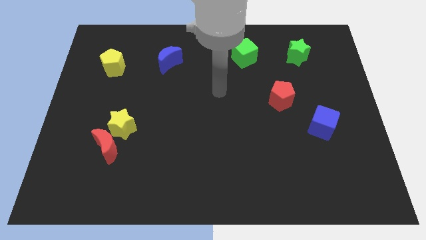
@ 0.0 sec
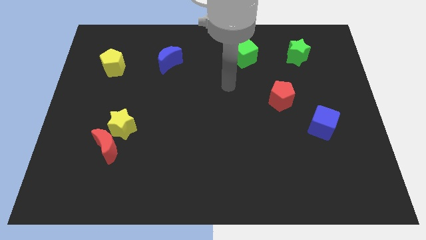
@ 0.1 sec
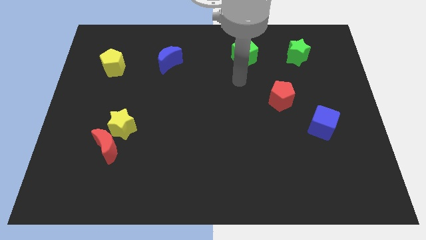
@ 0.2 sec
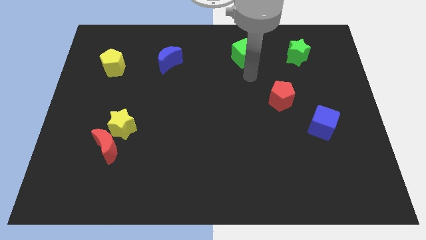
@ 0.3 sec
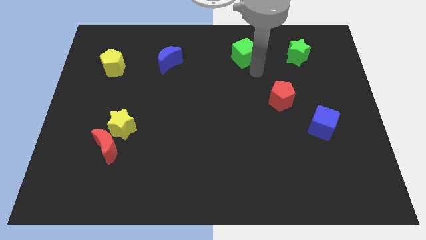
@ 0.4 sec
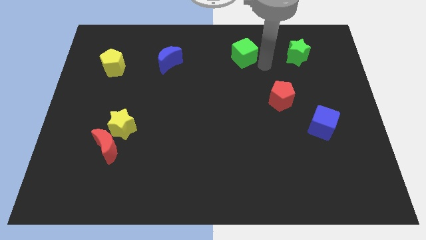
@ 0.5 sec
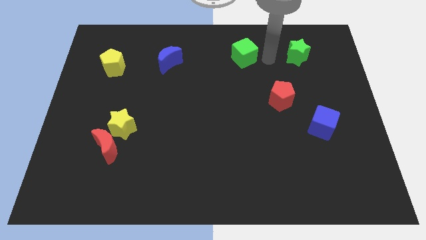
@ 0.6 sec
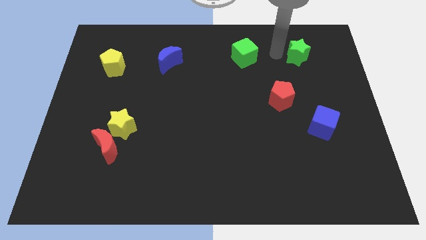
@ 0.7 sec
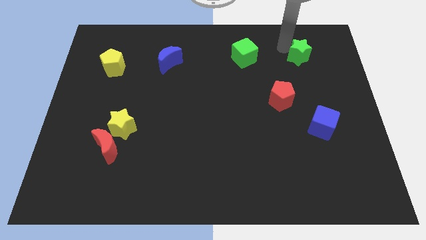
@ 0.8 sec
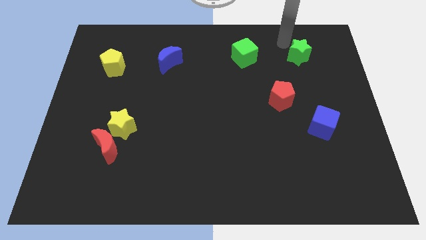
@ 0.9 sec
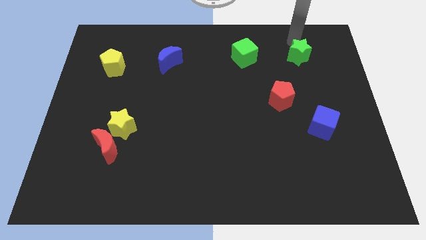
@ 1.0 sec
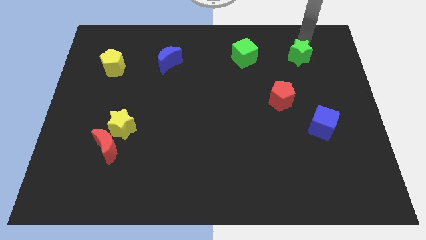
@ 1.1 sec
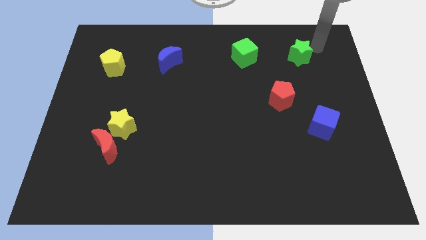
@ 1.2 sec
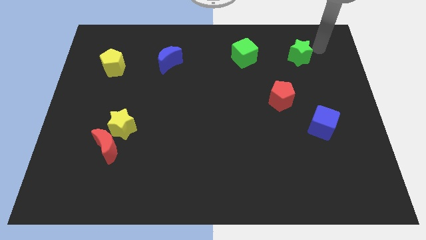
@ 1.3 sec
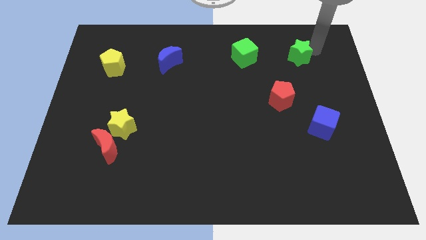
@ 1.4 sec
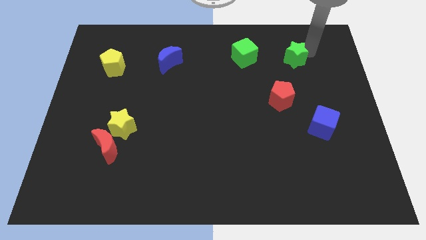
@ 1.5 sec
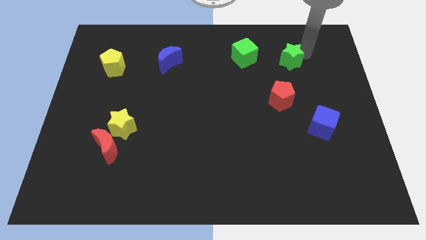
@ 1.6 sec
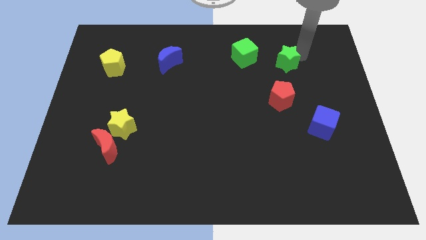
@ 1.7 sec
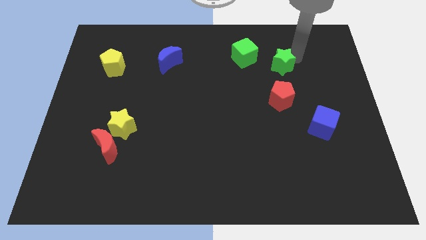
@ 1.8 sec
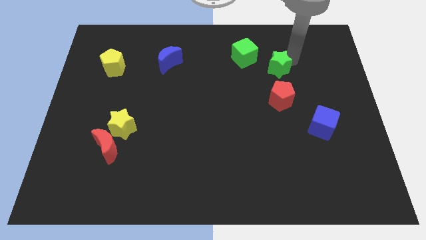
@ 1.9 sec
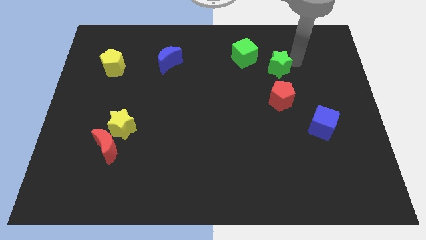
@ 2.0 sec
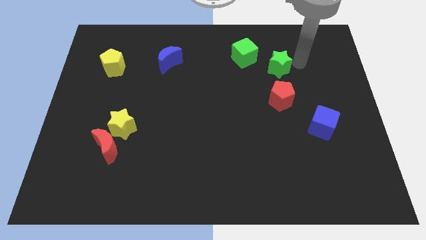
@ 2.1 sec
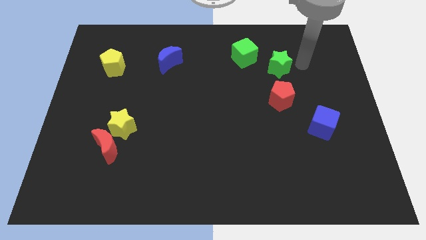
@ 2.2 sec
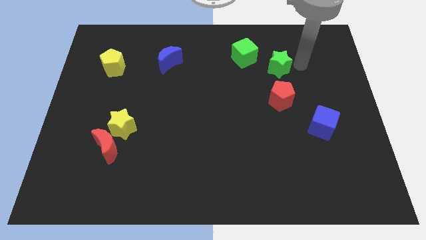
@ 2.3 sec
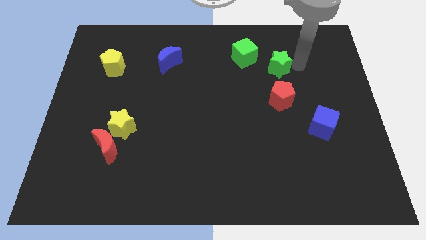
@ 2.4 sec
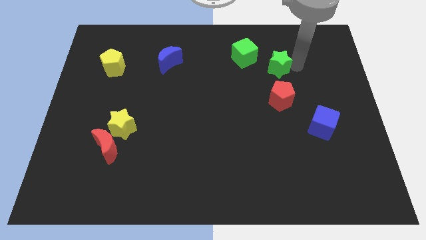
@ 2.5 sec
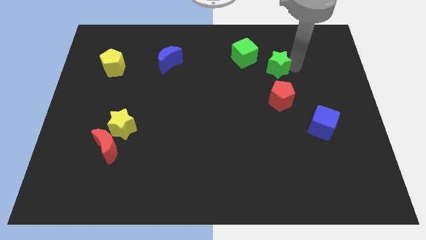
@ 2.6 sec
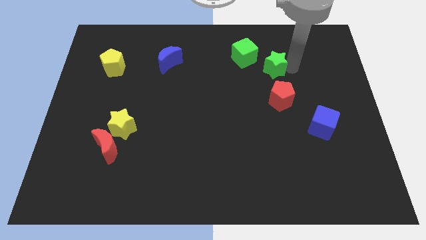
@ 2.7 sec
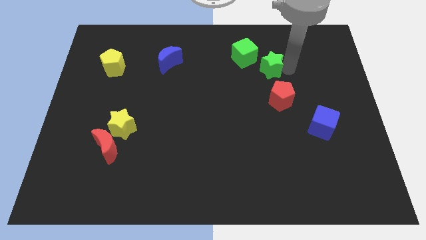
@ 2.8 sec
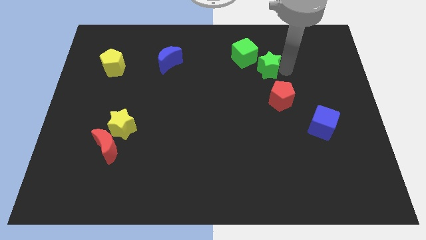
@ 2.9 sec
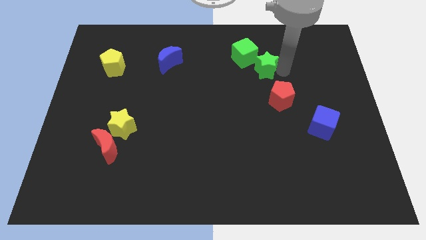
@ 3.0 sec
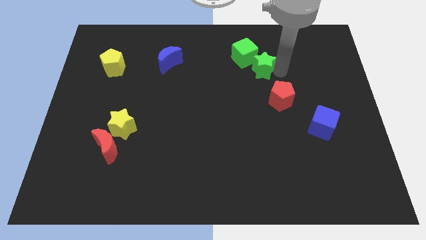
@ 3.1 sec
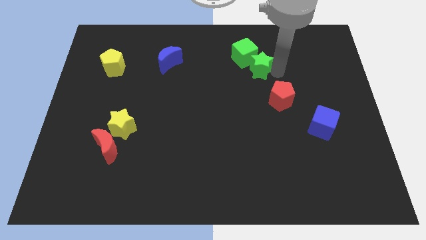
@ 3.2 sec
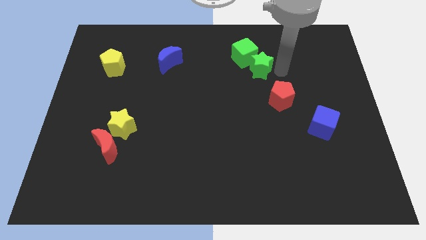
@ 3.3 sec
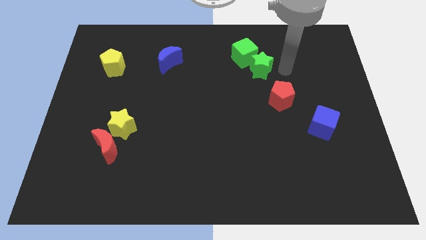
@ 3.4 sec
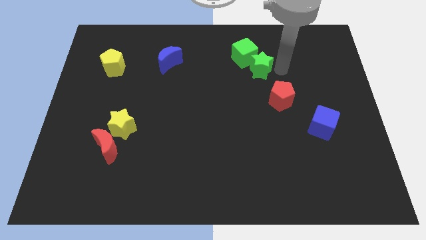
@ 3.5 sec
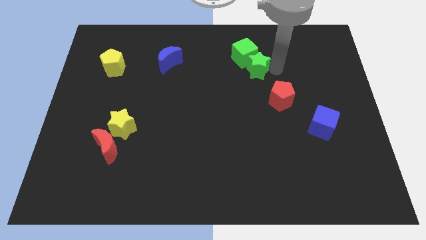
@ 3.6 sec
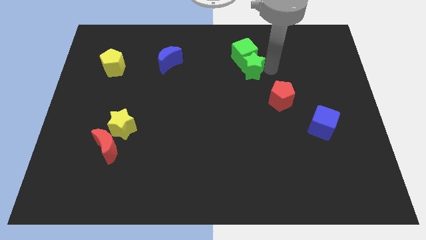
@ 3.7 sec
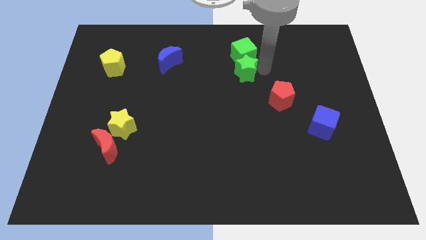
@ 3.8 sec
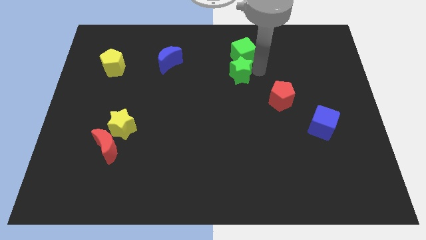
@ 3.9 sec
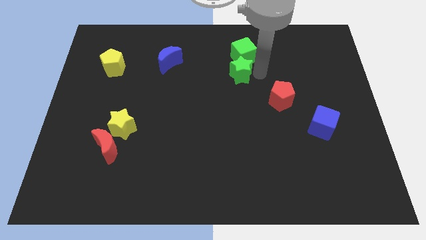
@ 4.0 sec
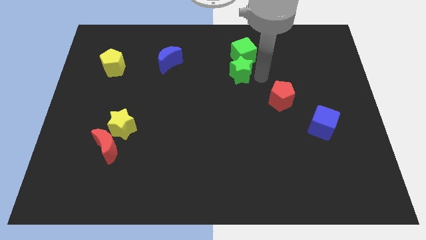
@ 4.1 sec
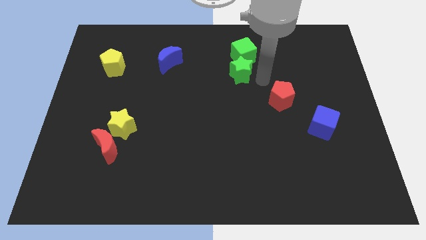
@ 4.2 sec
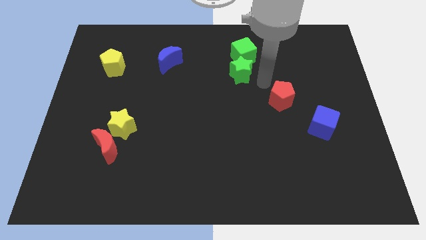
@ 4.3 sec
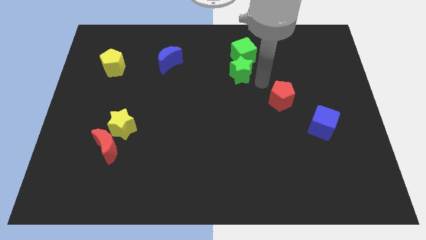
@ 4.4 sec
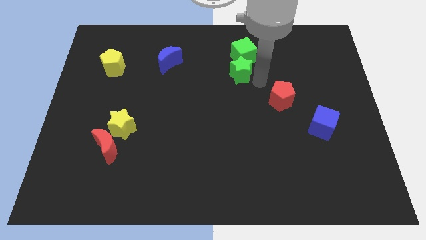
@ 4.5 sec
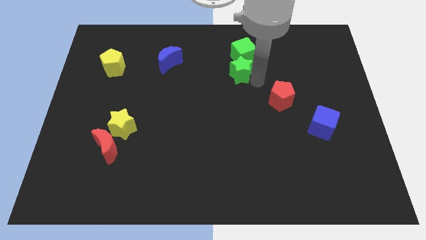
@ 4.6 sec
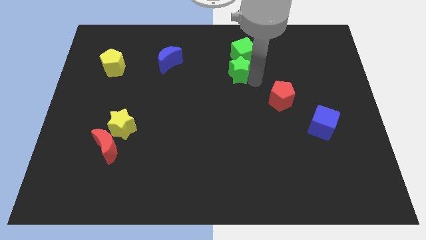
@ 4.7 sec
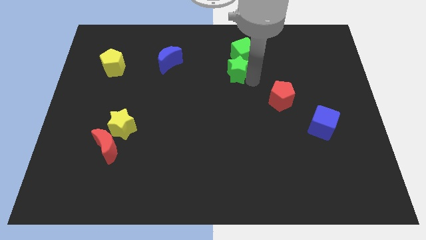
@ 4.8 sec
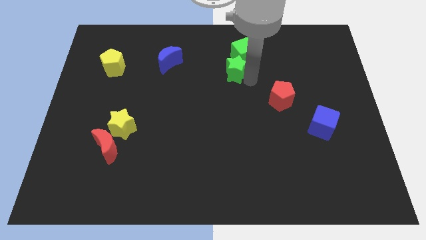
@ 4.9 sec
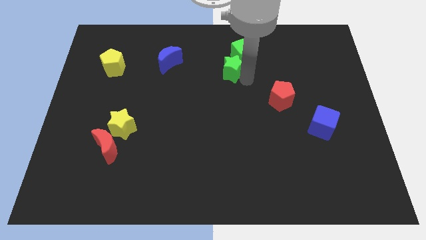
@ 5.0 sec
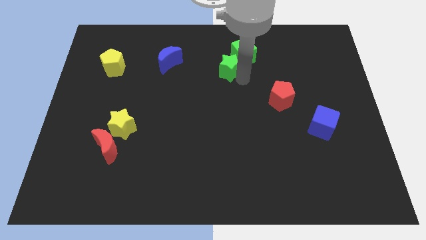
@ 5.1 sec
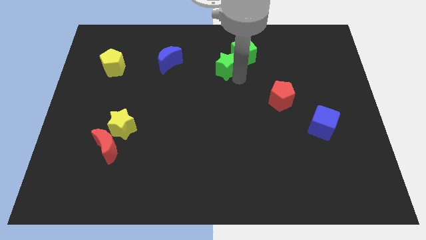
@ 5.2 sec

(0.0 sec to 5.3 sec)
push the green star to the left side of the green cube

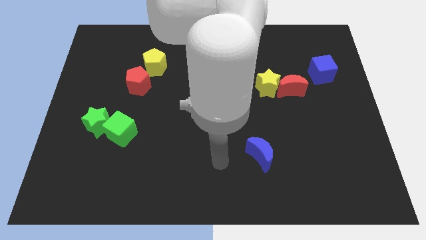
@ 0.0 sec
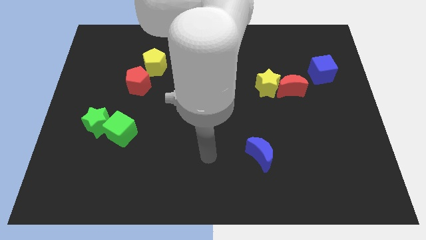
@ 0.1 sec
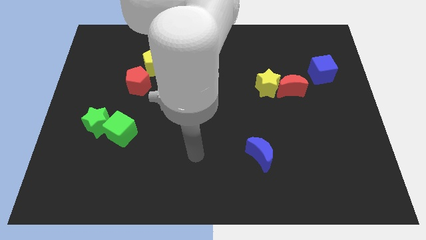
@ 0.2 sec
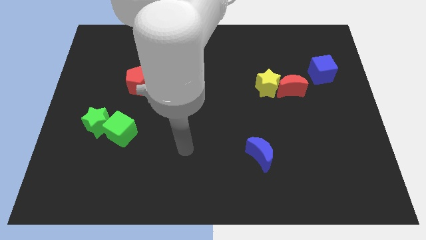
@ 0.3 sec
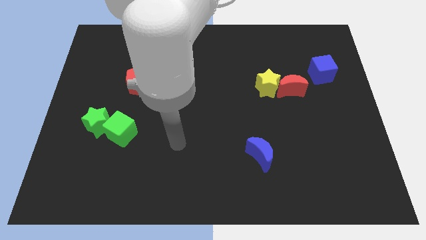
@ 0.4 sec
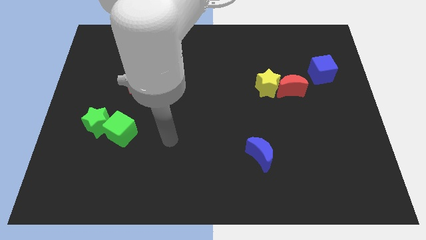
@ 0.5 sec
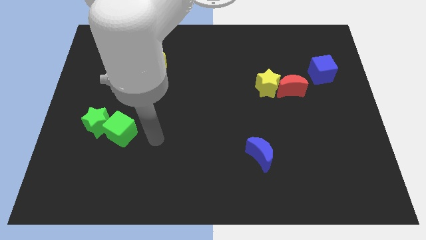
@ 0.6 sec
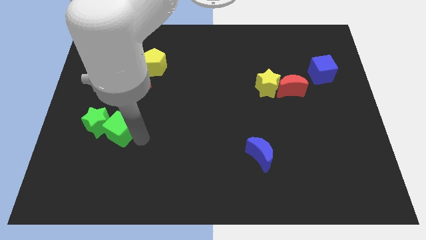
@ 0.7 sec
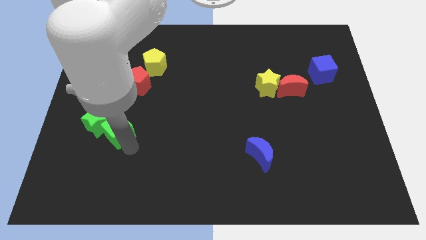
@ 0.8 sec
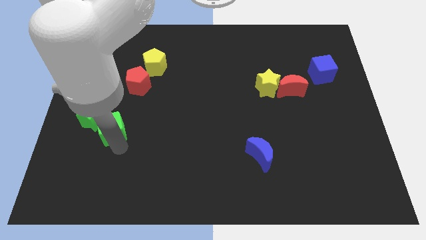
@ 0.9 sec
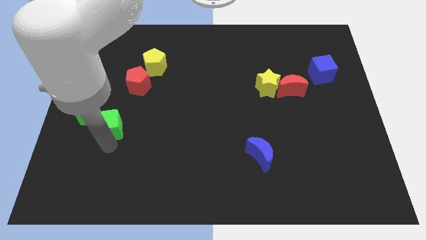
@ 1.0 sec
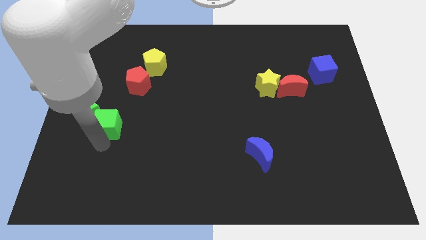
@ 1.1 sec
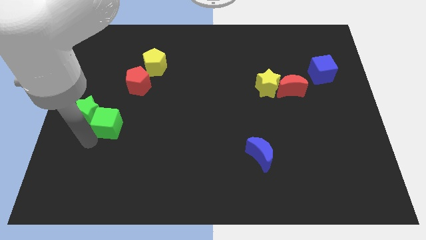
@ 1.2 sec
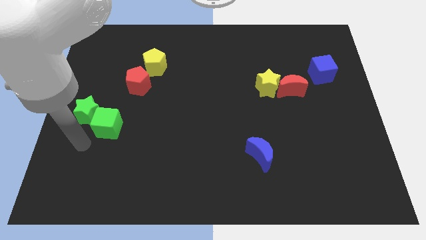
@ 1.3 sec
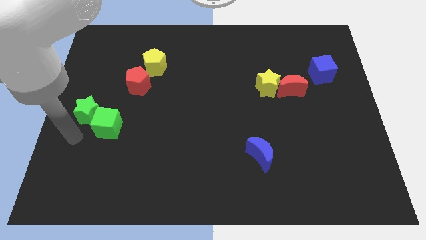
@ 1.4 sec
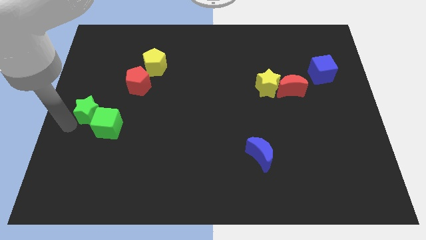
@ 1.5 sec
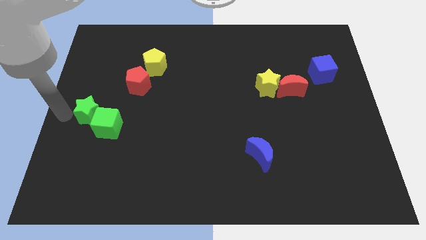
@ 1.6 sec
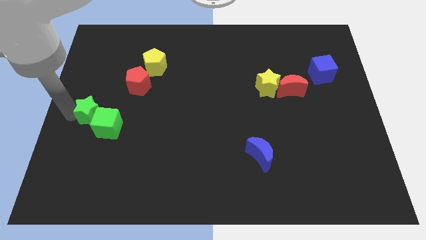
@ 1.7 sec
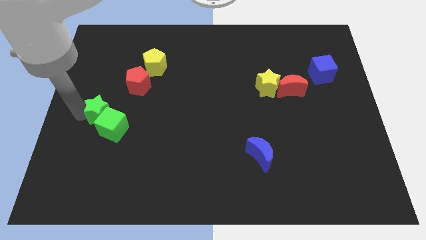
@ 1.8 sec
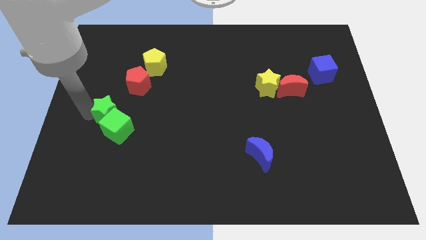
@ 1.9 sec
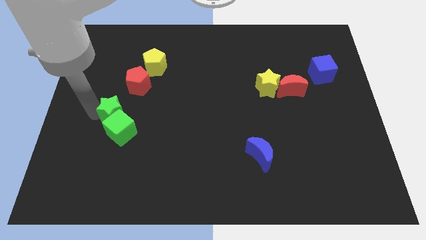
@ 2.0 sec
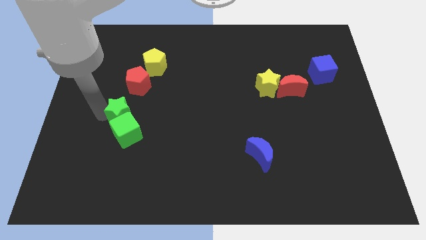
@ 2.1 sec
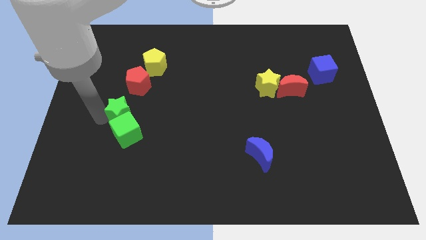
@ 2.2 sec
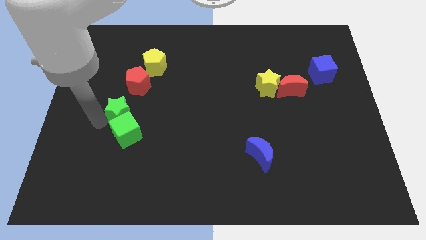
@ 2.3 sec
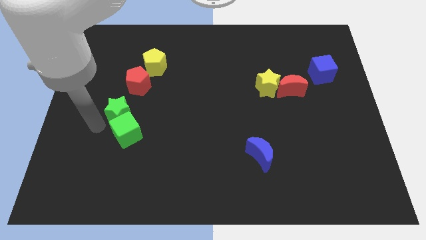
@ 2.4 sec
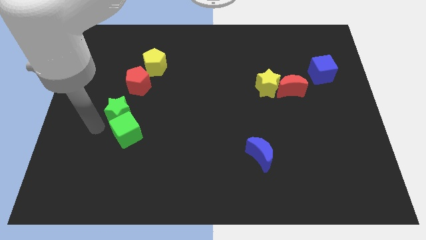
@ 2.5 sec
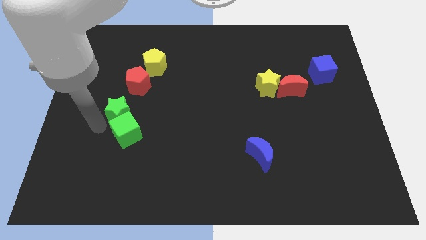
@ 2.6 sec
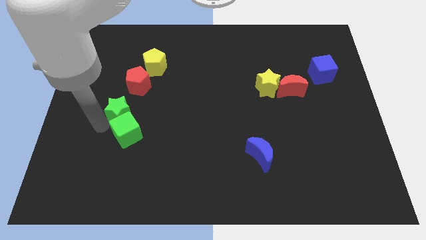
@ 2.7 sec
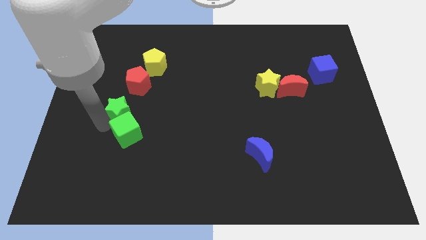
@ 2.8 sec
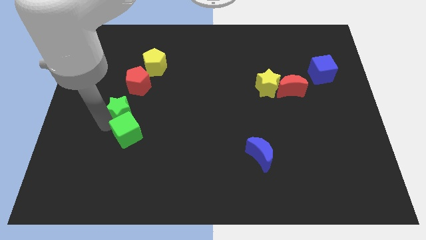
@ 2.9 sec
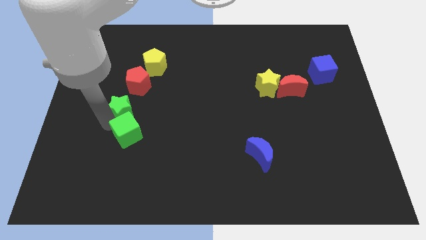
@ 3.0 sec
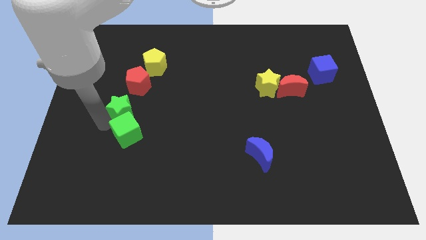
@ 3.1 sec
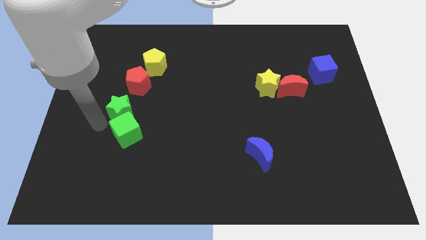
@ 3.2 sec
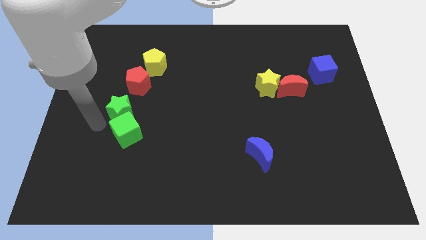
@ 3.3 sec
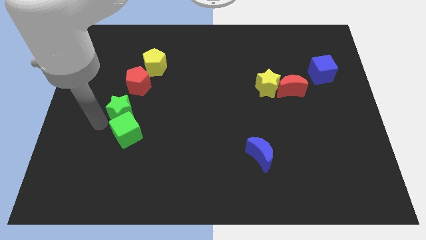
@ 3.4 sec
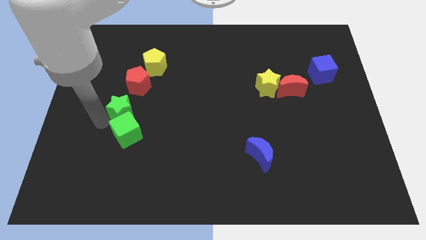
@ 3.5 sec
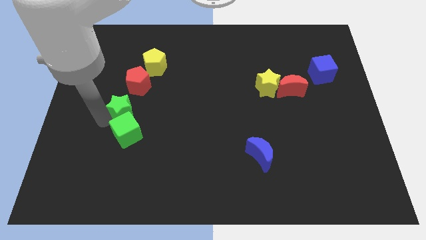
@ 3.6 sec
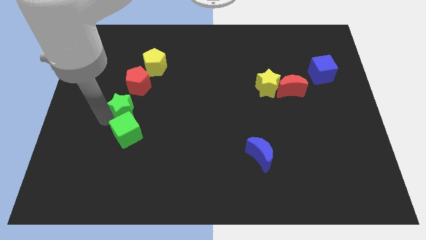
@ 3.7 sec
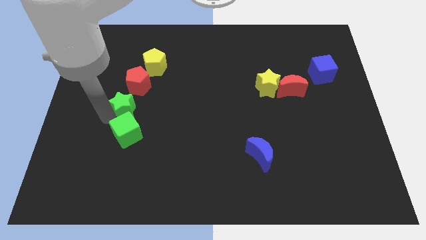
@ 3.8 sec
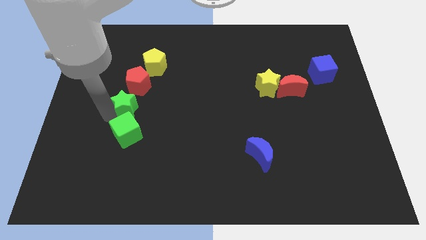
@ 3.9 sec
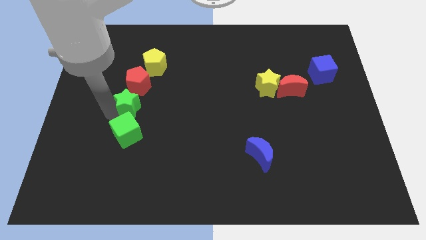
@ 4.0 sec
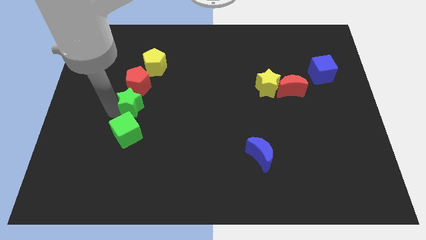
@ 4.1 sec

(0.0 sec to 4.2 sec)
slide the green star below the yellow pentagon
